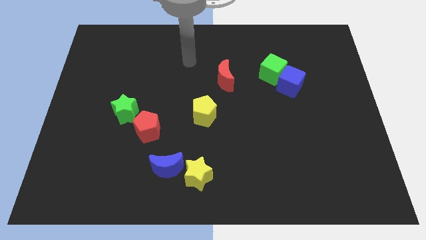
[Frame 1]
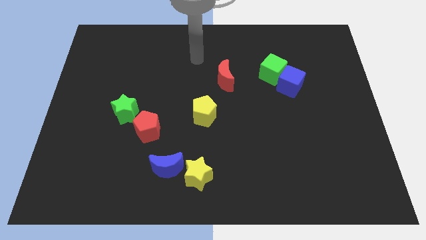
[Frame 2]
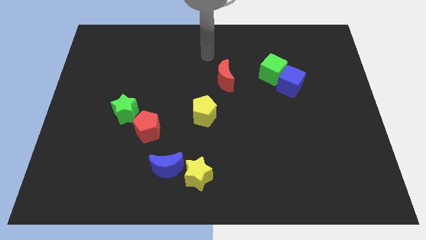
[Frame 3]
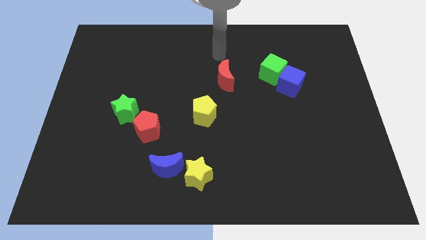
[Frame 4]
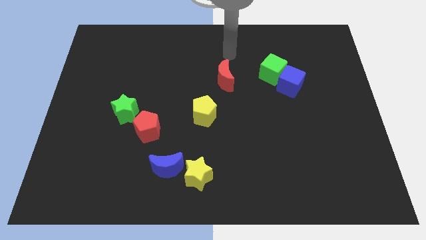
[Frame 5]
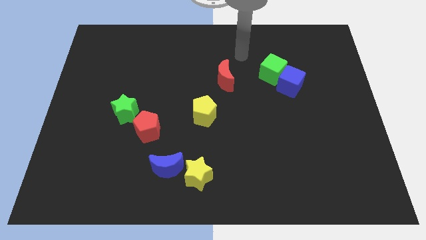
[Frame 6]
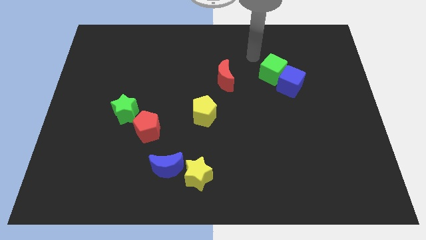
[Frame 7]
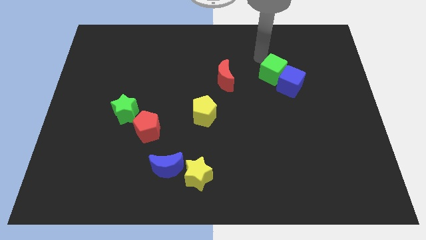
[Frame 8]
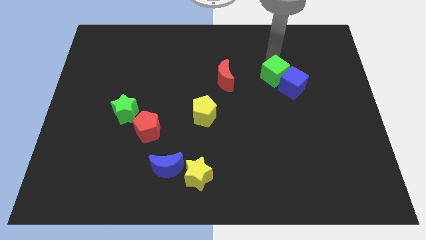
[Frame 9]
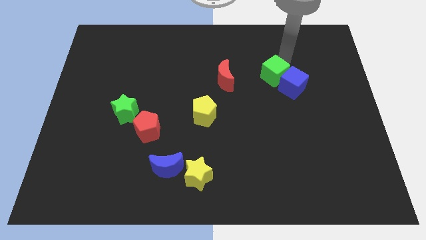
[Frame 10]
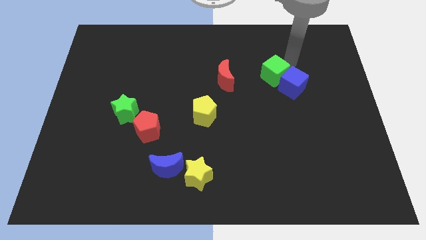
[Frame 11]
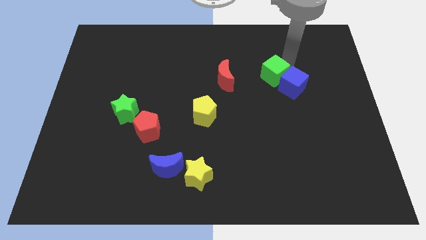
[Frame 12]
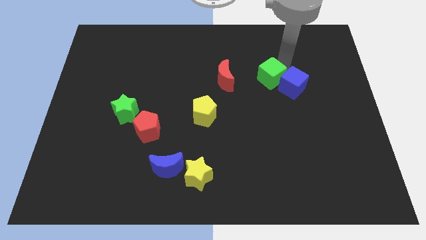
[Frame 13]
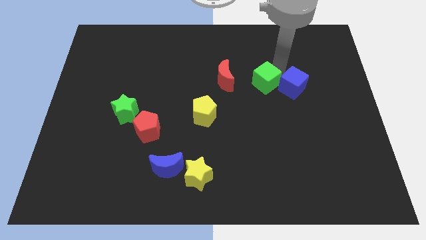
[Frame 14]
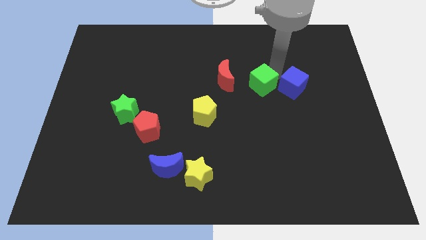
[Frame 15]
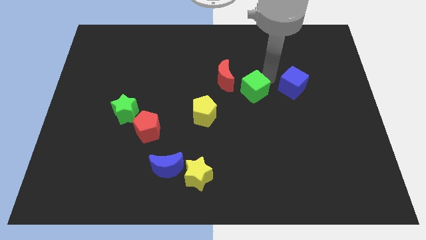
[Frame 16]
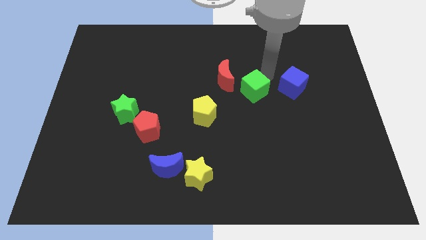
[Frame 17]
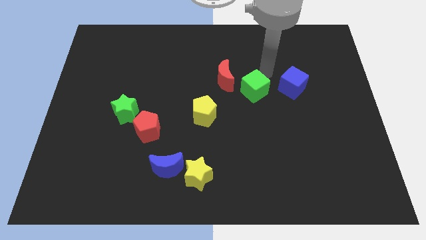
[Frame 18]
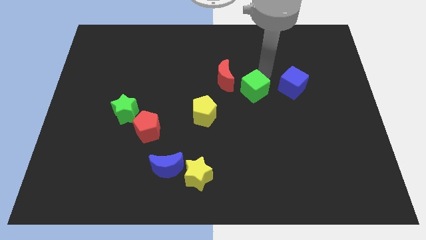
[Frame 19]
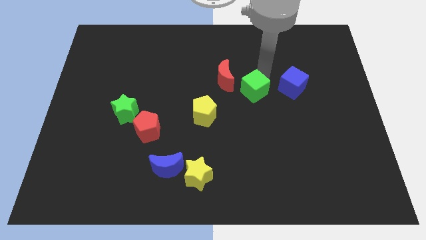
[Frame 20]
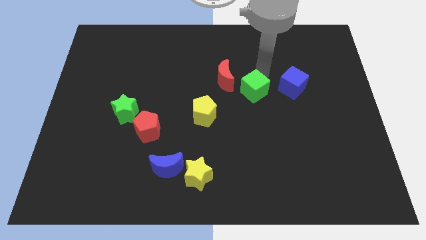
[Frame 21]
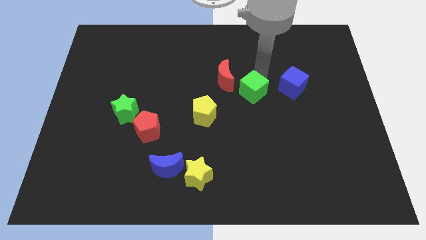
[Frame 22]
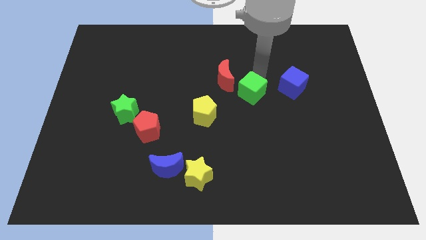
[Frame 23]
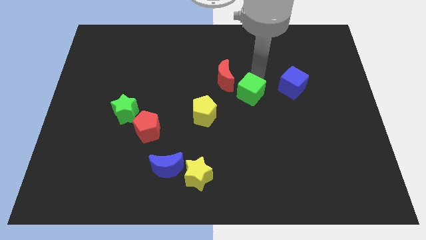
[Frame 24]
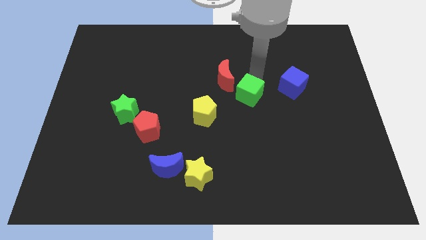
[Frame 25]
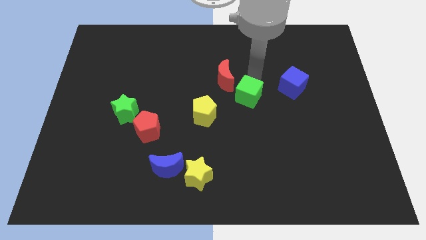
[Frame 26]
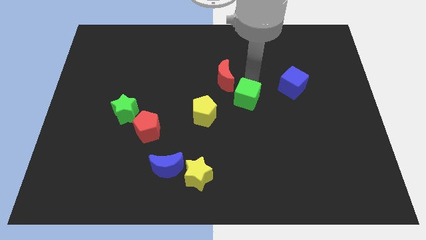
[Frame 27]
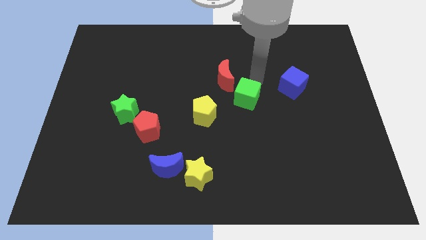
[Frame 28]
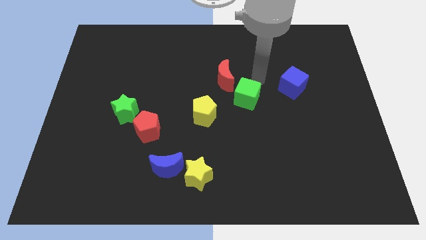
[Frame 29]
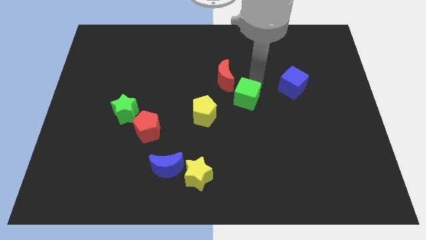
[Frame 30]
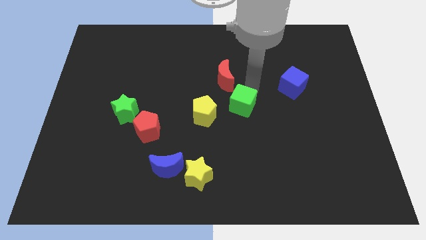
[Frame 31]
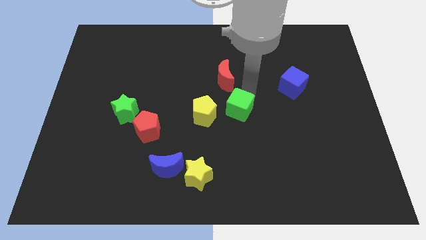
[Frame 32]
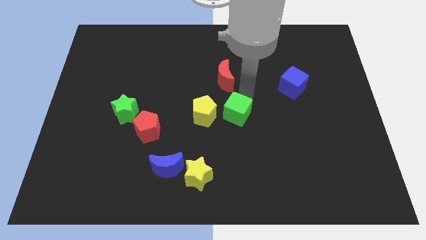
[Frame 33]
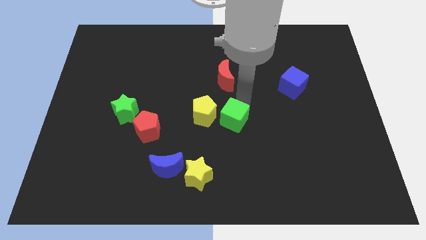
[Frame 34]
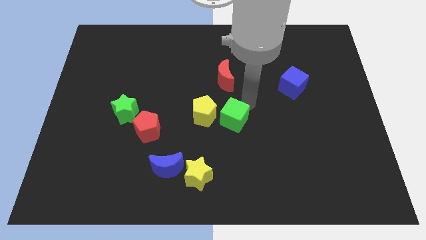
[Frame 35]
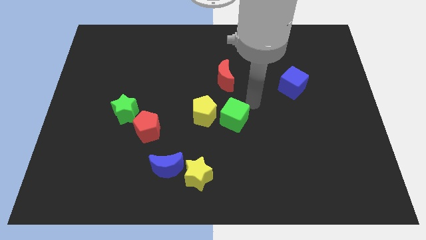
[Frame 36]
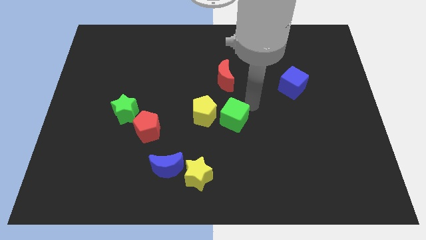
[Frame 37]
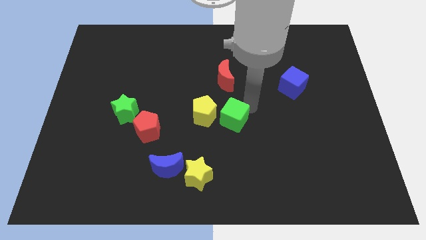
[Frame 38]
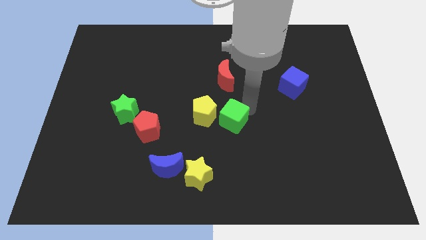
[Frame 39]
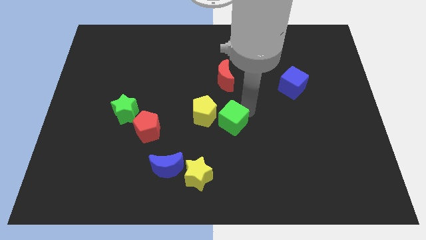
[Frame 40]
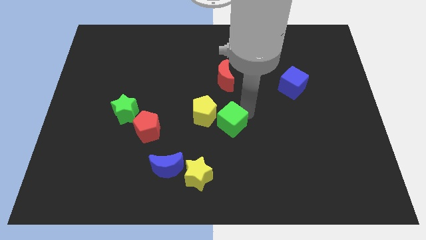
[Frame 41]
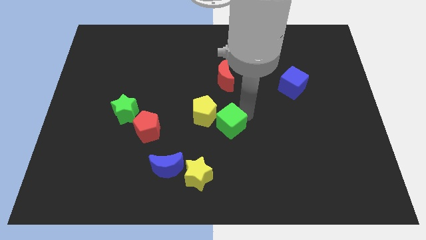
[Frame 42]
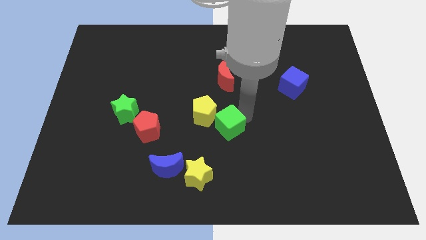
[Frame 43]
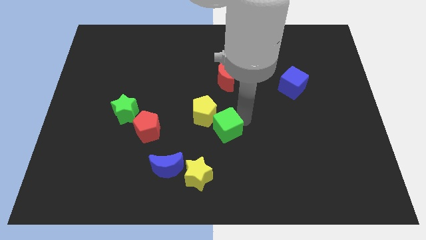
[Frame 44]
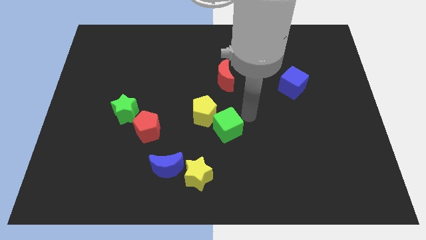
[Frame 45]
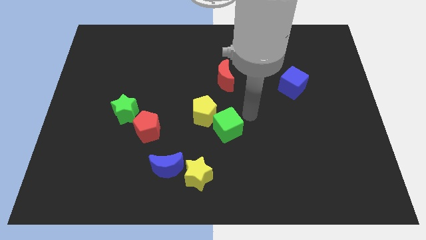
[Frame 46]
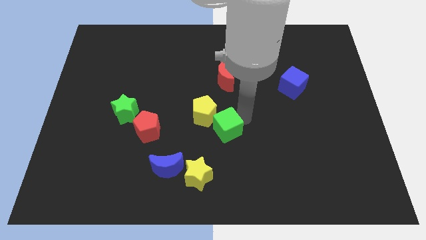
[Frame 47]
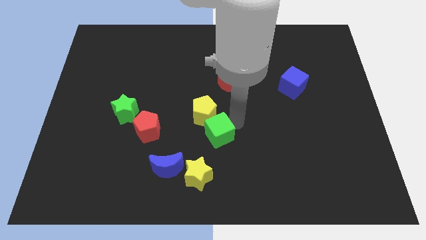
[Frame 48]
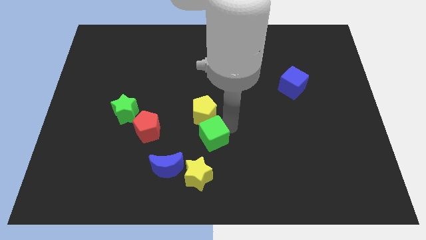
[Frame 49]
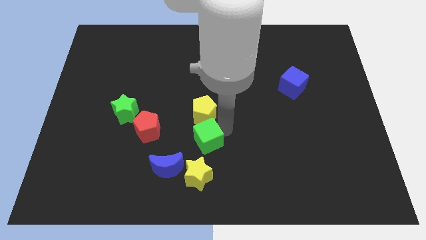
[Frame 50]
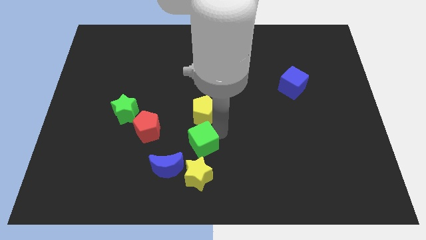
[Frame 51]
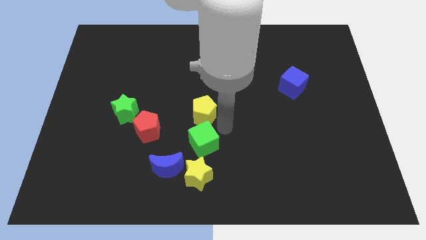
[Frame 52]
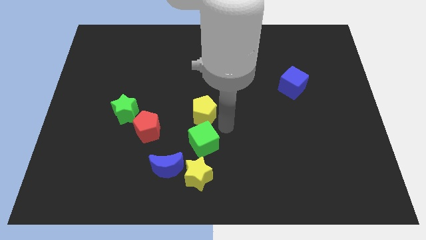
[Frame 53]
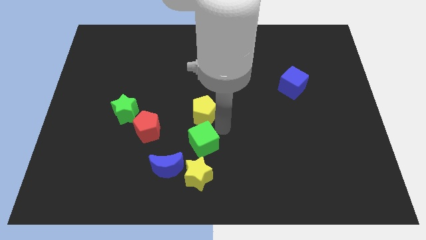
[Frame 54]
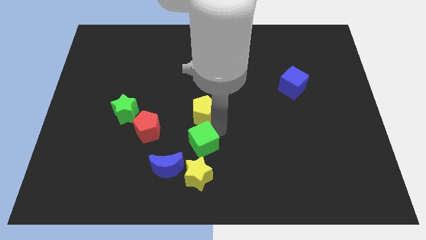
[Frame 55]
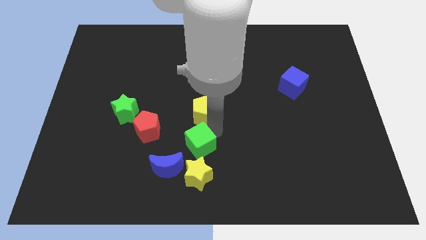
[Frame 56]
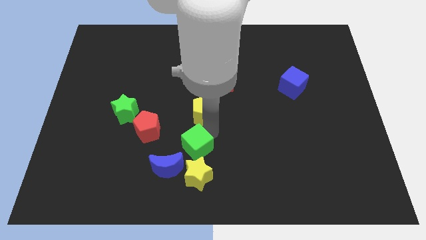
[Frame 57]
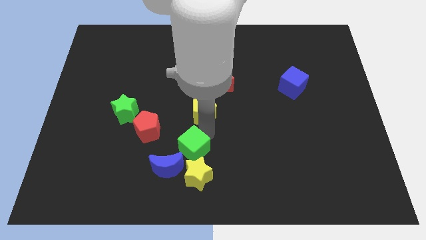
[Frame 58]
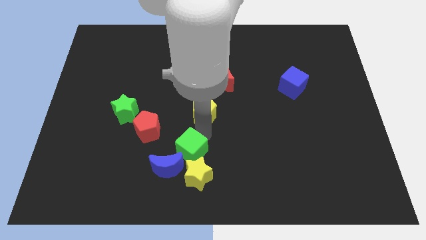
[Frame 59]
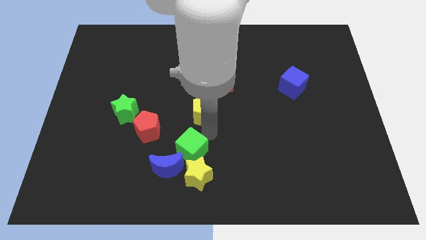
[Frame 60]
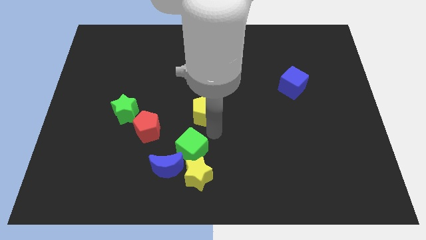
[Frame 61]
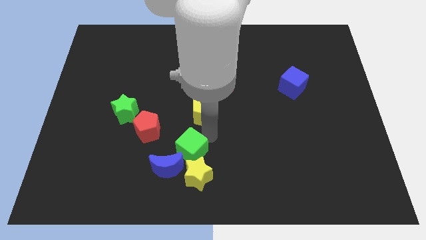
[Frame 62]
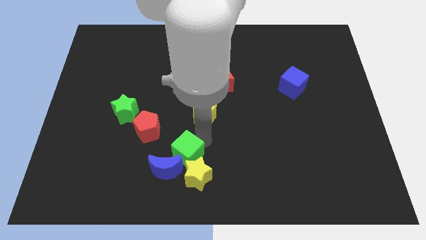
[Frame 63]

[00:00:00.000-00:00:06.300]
push the green cube to the blue moon
